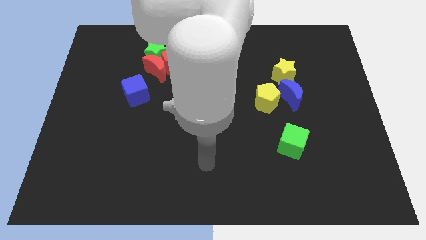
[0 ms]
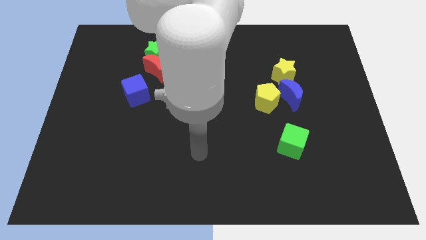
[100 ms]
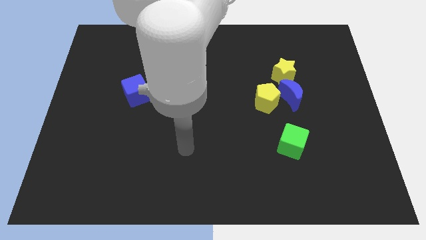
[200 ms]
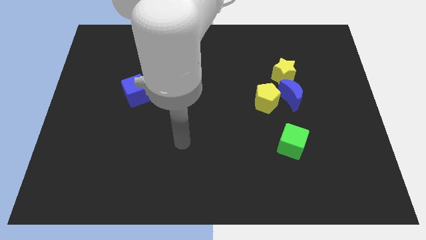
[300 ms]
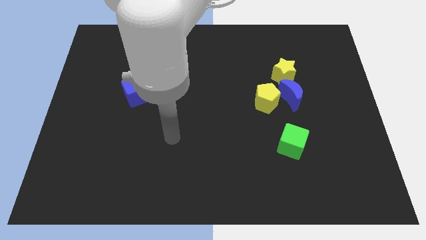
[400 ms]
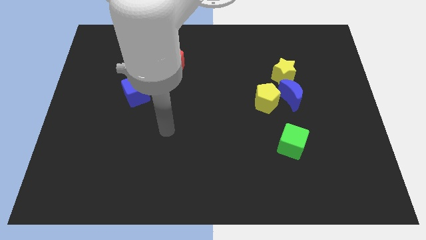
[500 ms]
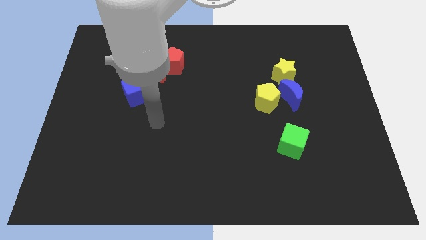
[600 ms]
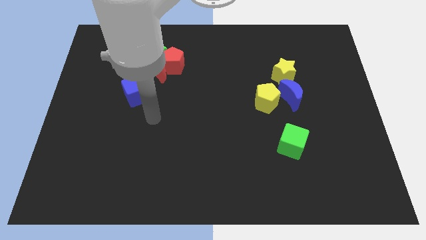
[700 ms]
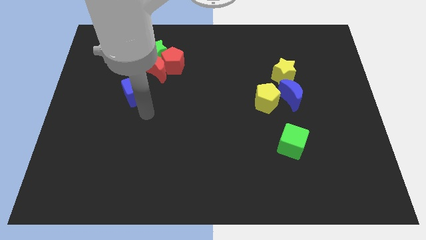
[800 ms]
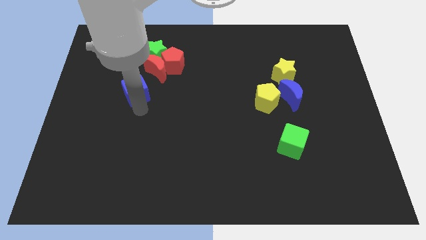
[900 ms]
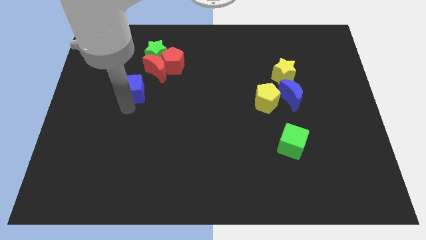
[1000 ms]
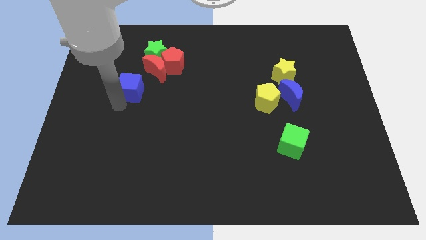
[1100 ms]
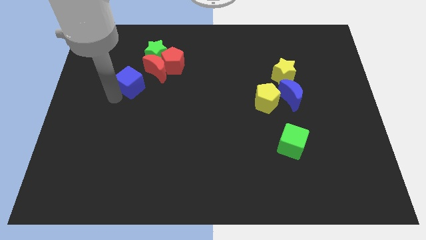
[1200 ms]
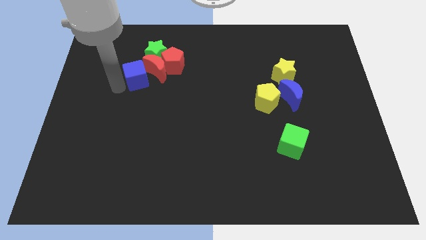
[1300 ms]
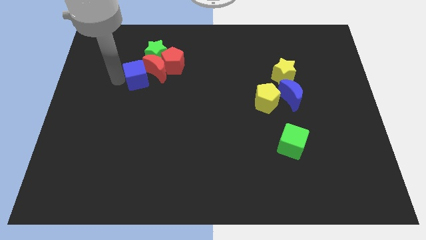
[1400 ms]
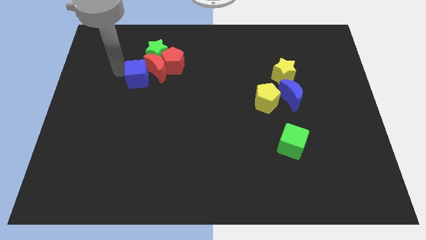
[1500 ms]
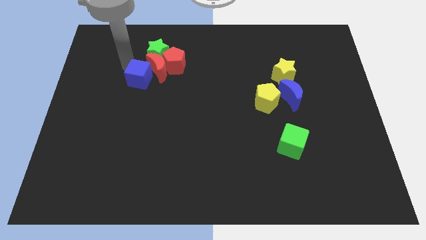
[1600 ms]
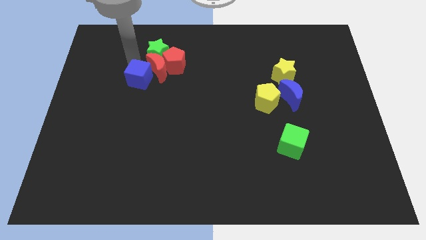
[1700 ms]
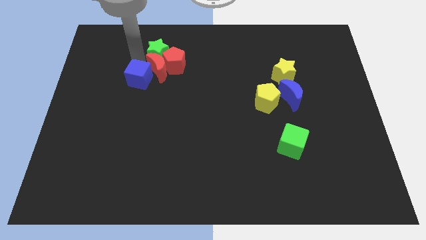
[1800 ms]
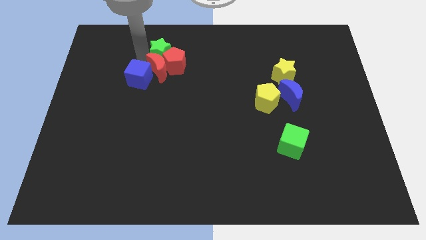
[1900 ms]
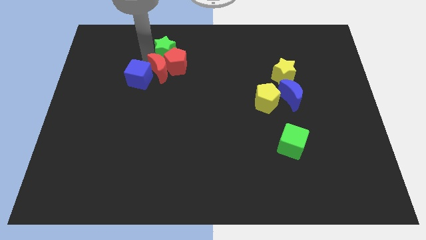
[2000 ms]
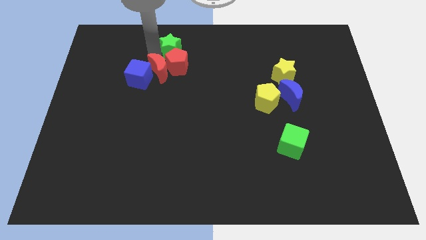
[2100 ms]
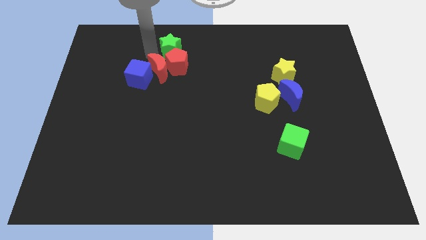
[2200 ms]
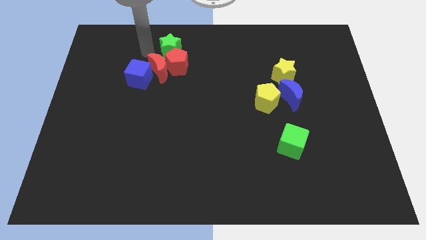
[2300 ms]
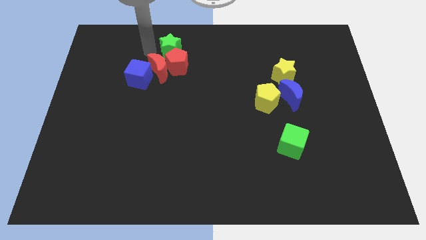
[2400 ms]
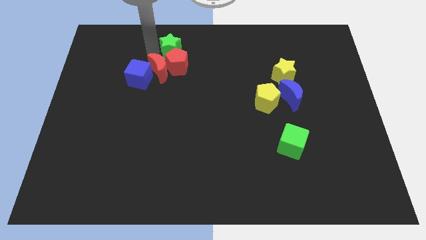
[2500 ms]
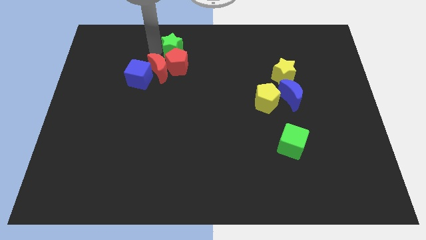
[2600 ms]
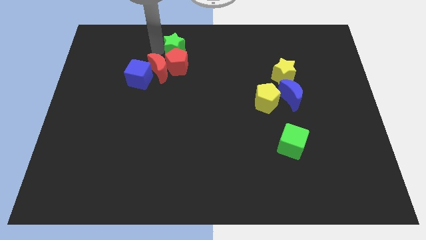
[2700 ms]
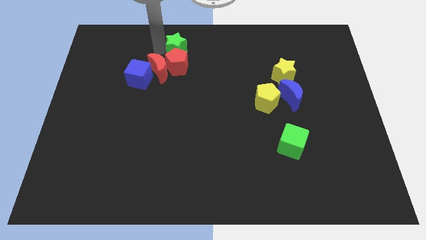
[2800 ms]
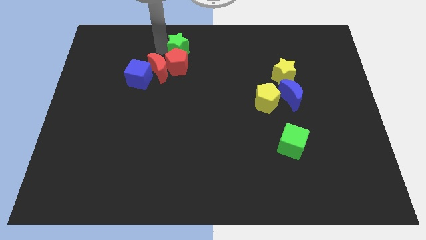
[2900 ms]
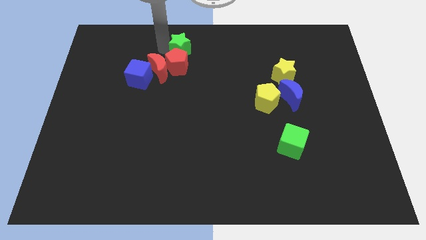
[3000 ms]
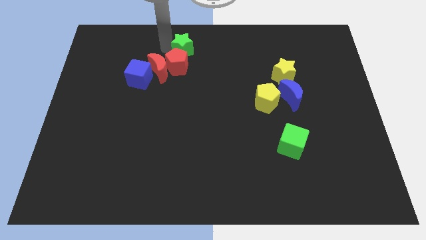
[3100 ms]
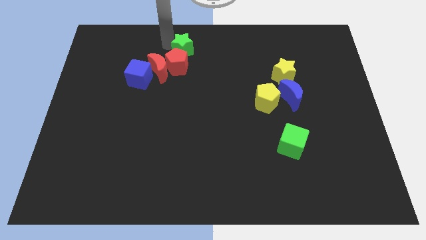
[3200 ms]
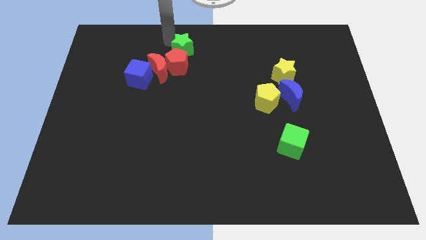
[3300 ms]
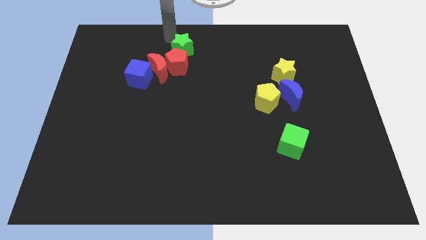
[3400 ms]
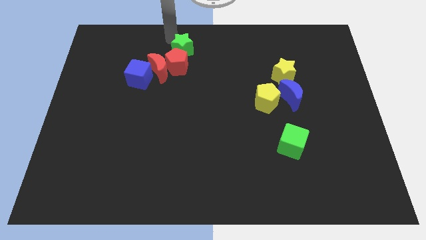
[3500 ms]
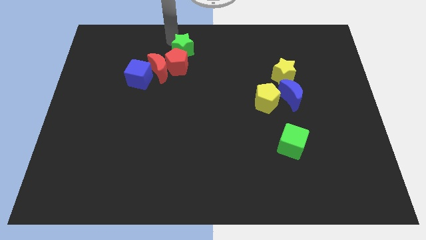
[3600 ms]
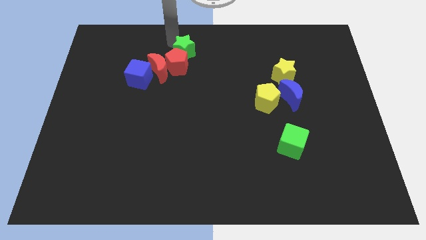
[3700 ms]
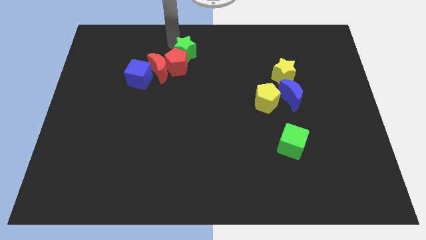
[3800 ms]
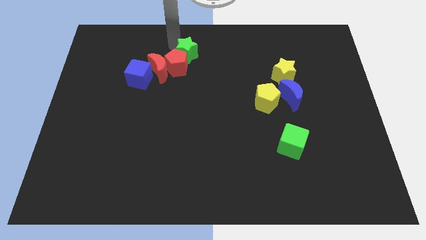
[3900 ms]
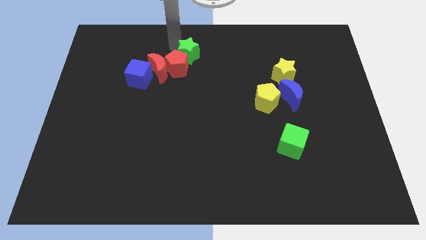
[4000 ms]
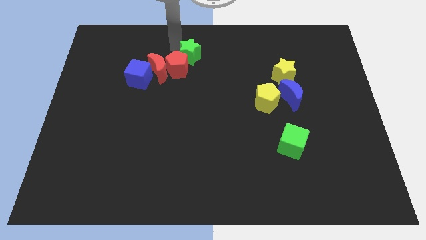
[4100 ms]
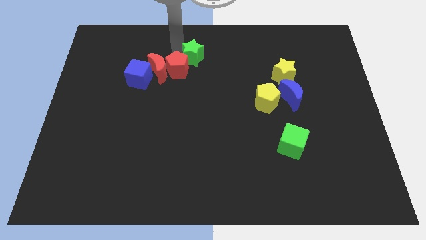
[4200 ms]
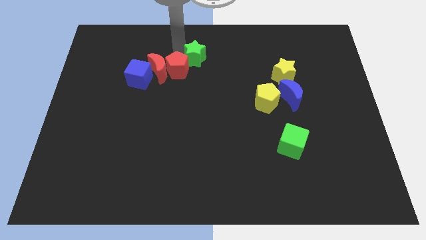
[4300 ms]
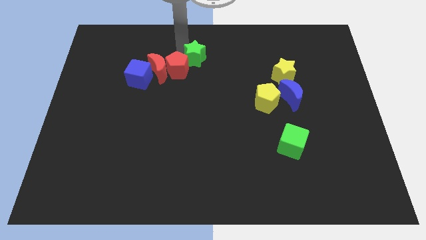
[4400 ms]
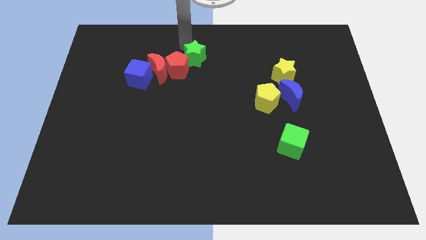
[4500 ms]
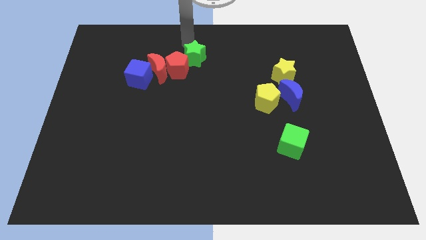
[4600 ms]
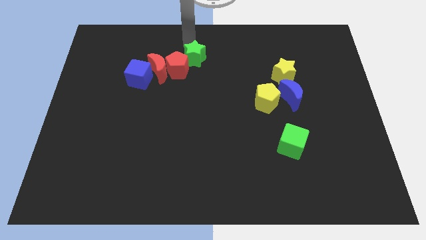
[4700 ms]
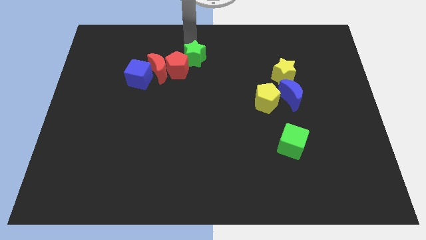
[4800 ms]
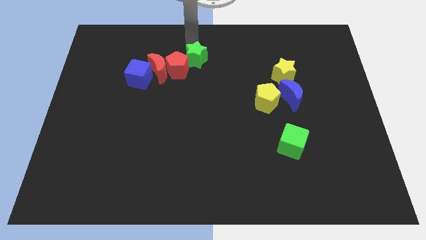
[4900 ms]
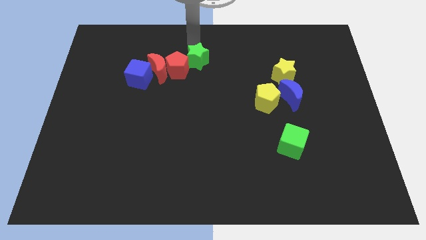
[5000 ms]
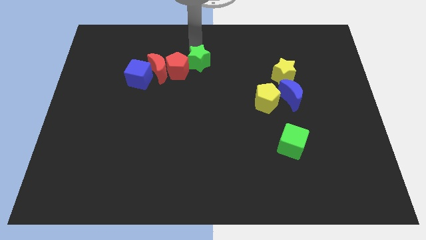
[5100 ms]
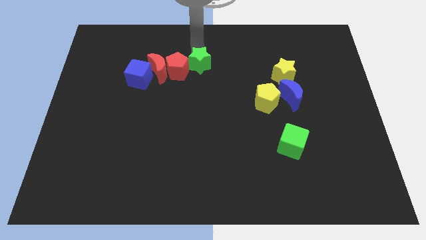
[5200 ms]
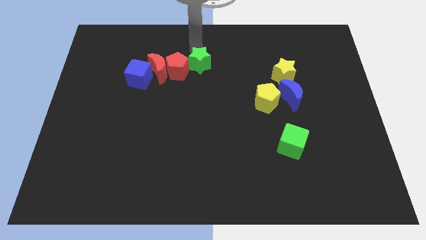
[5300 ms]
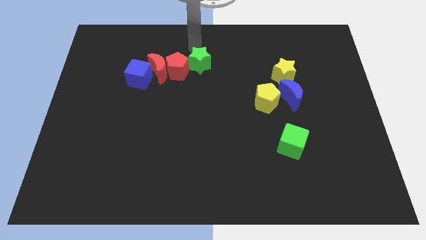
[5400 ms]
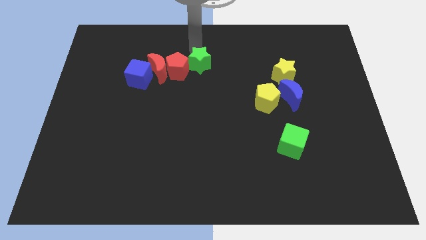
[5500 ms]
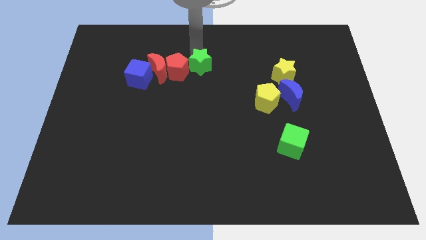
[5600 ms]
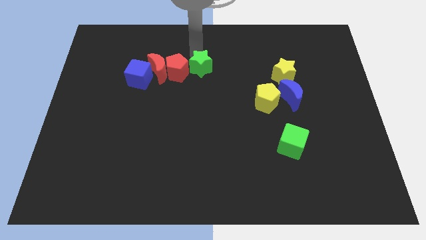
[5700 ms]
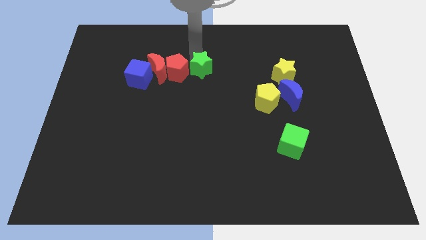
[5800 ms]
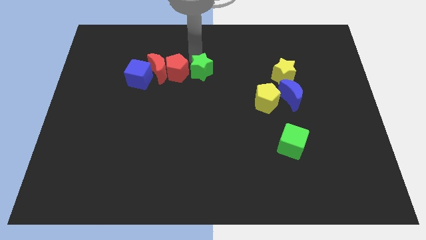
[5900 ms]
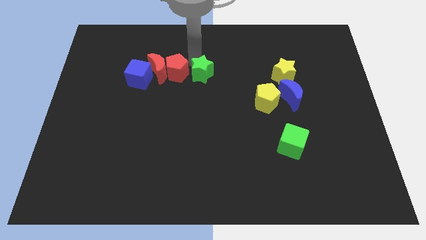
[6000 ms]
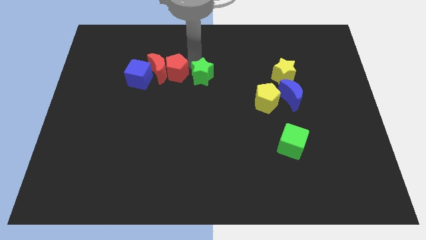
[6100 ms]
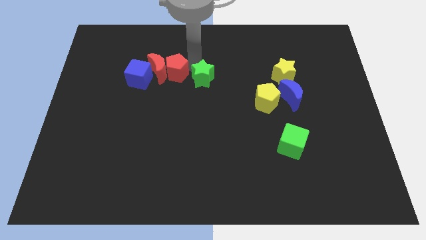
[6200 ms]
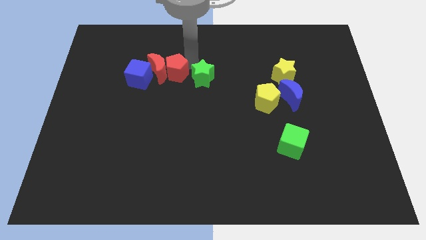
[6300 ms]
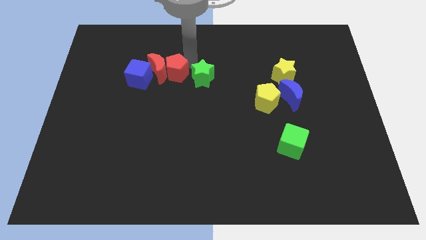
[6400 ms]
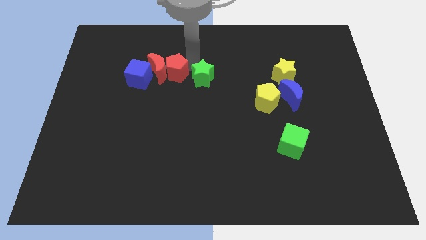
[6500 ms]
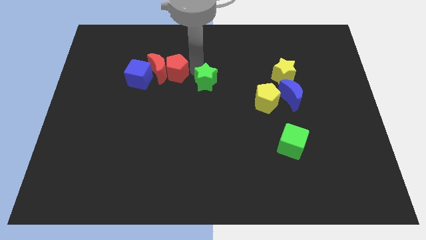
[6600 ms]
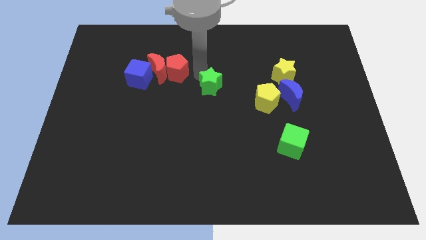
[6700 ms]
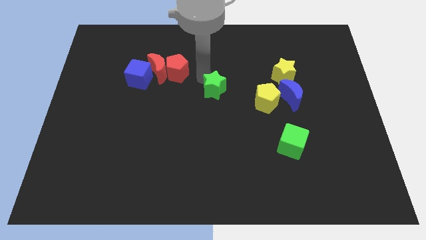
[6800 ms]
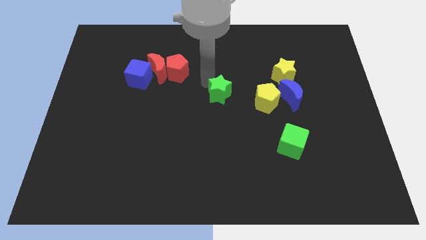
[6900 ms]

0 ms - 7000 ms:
move the green star downwards and to the right diagonally

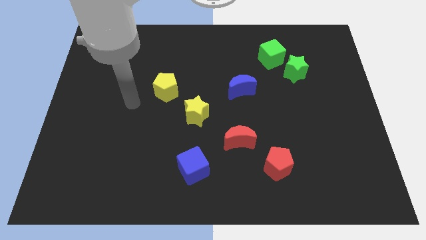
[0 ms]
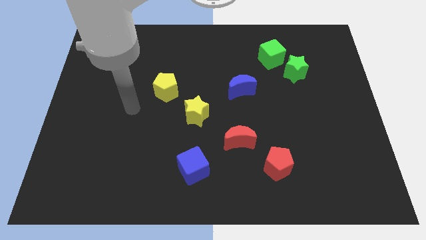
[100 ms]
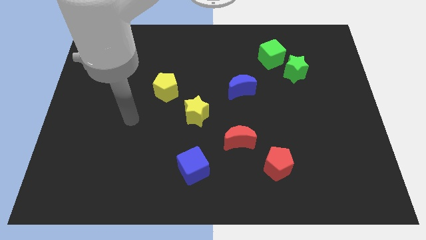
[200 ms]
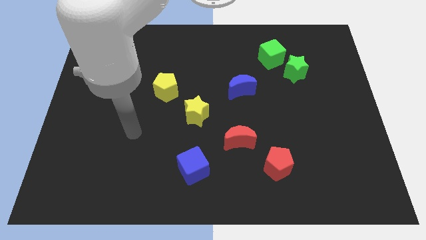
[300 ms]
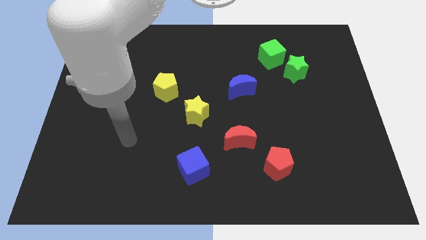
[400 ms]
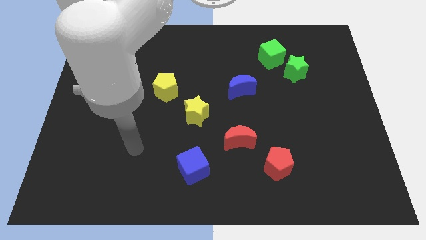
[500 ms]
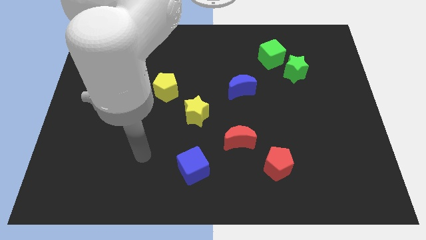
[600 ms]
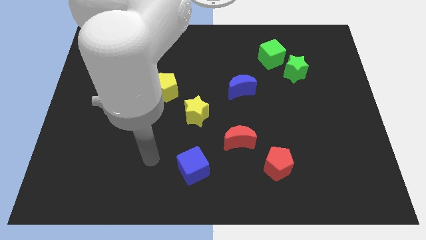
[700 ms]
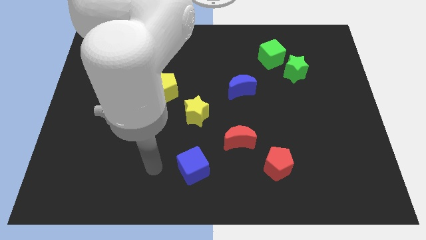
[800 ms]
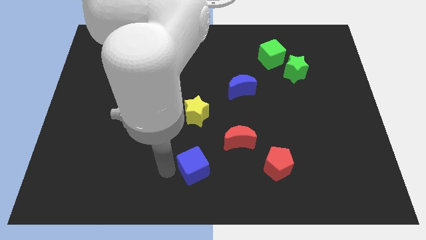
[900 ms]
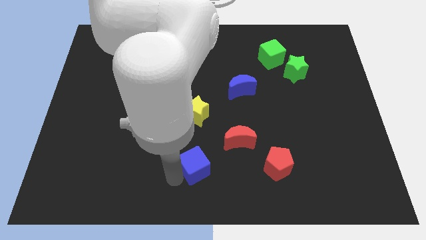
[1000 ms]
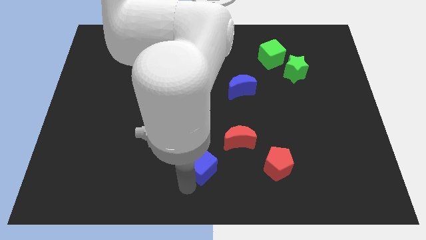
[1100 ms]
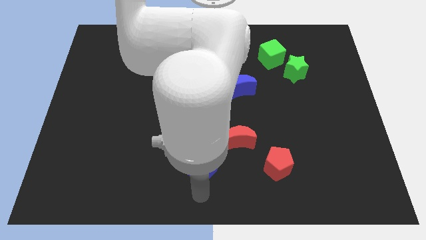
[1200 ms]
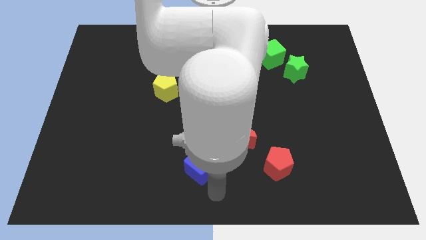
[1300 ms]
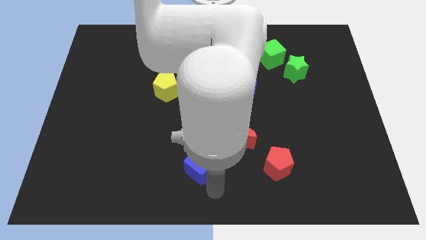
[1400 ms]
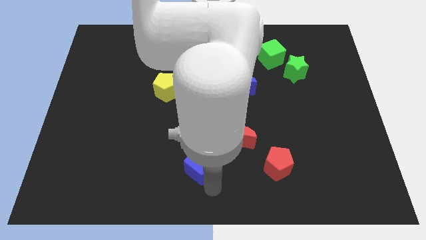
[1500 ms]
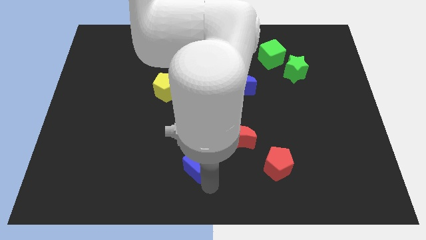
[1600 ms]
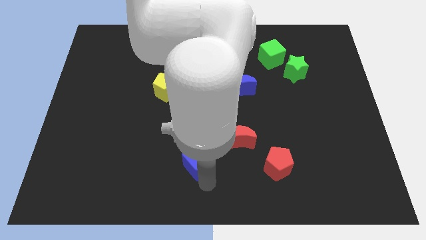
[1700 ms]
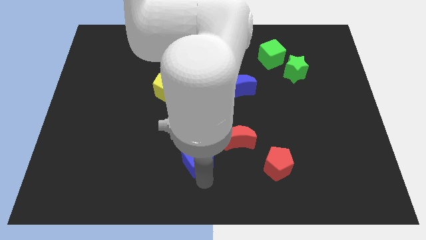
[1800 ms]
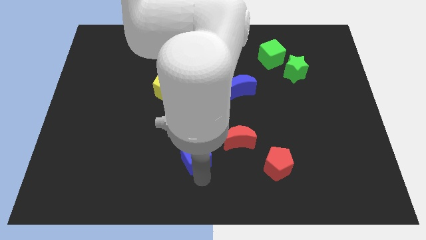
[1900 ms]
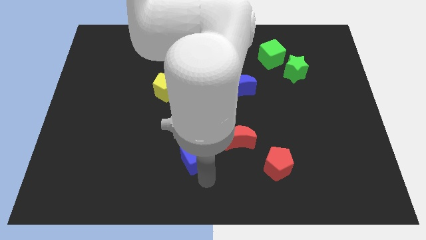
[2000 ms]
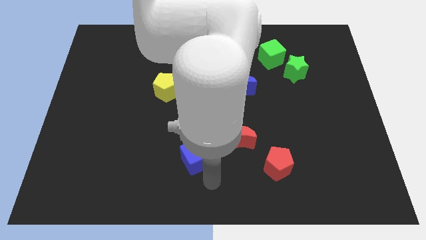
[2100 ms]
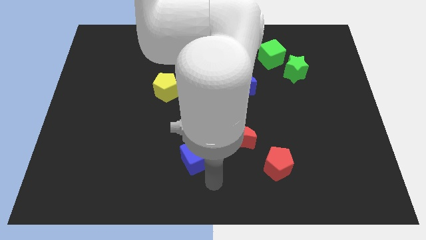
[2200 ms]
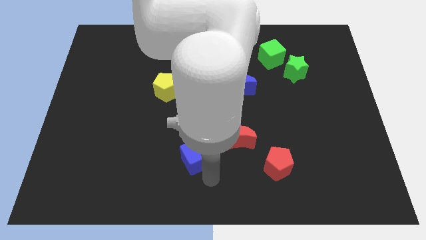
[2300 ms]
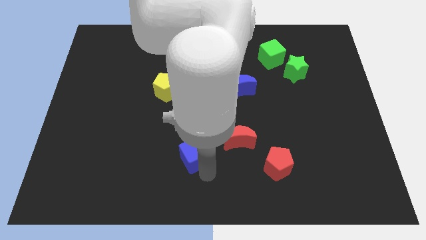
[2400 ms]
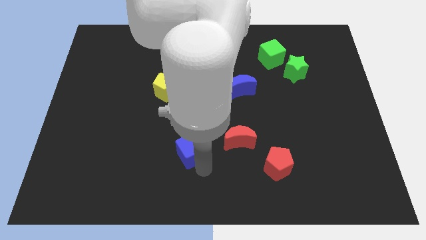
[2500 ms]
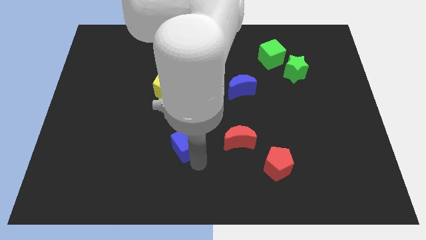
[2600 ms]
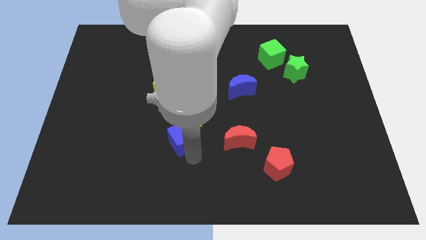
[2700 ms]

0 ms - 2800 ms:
move the blue cube upwards a little bit
